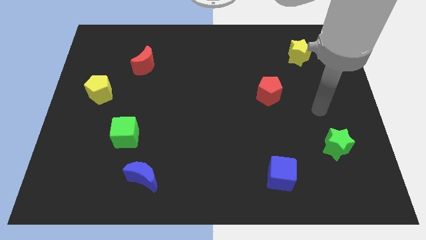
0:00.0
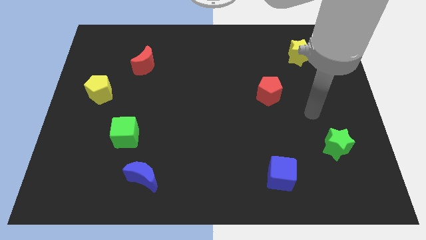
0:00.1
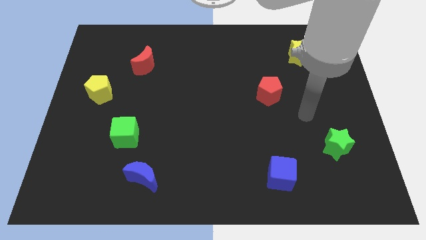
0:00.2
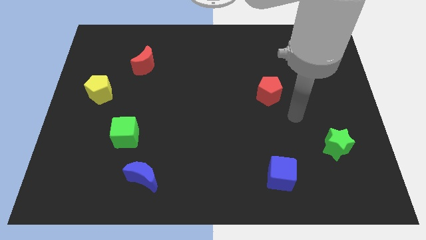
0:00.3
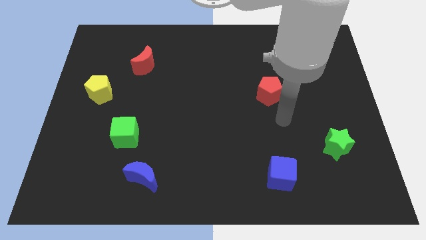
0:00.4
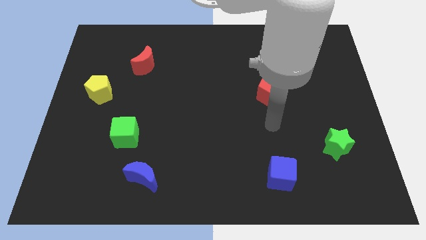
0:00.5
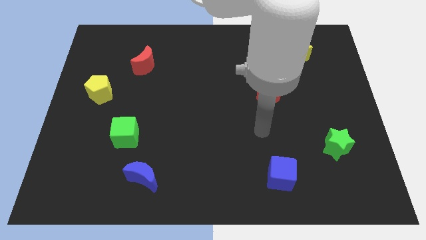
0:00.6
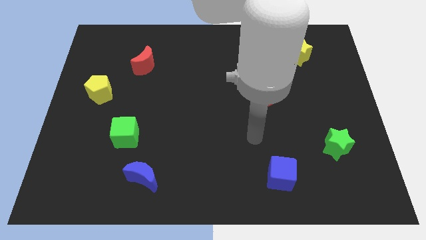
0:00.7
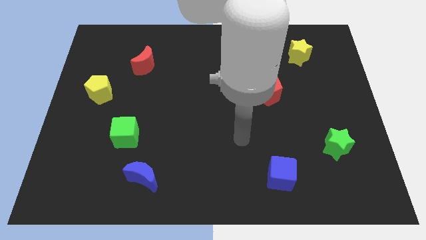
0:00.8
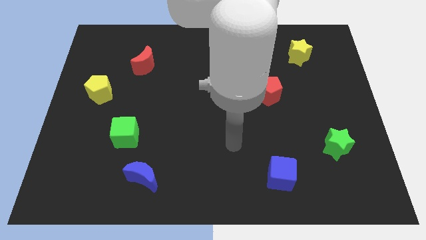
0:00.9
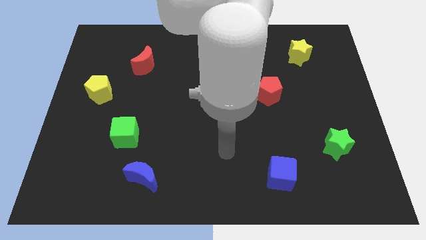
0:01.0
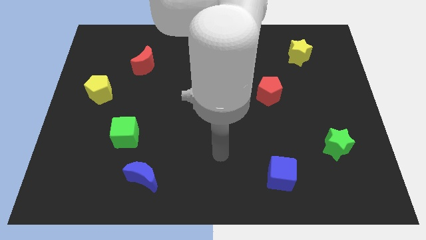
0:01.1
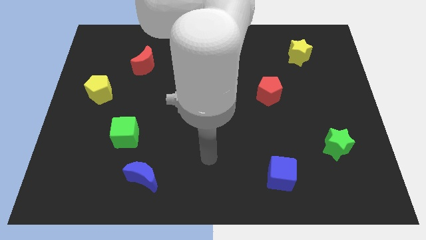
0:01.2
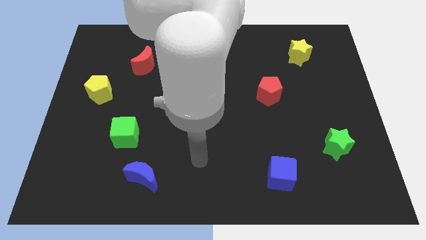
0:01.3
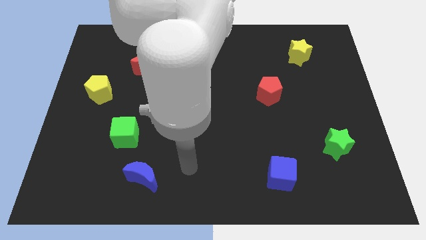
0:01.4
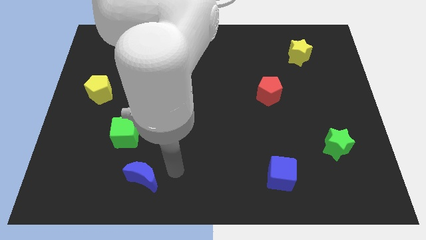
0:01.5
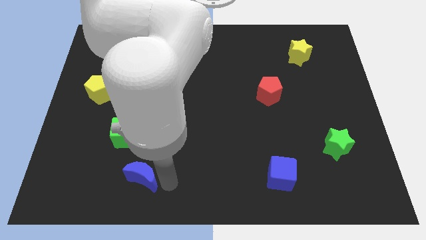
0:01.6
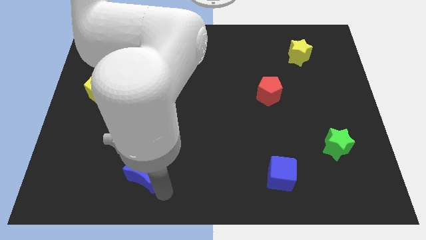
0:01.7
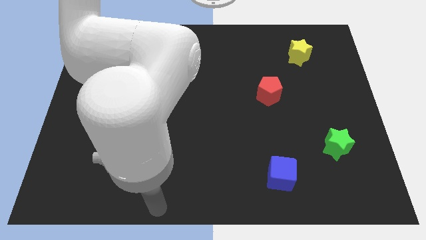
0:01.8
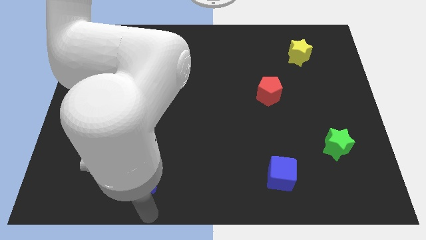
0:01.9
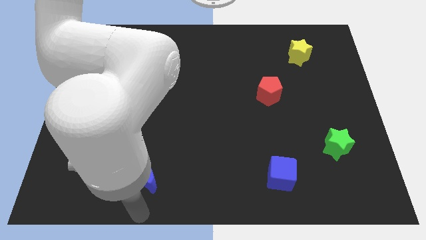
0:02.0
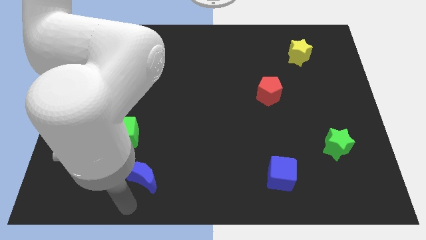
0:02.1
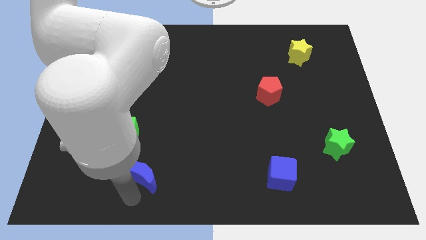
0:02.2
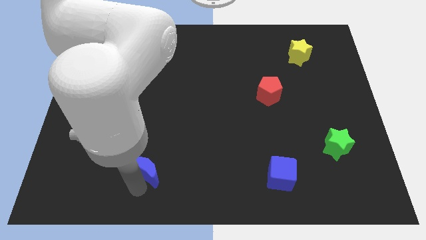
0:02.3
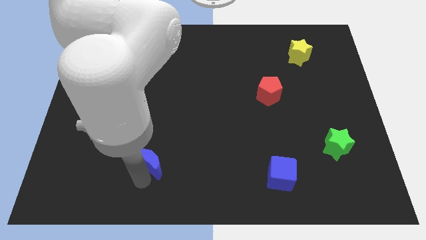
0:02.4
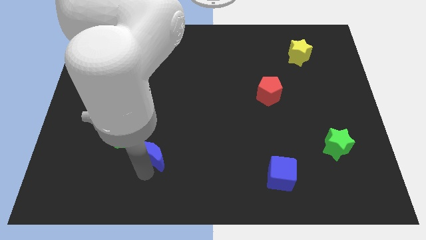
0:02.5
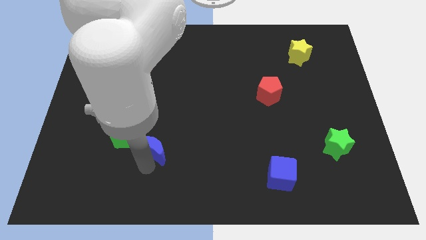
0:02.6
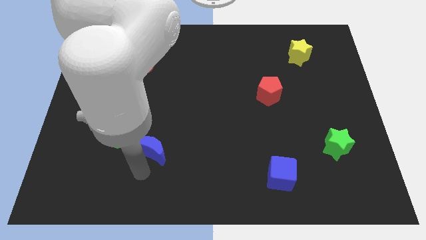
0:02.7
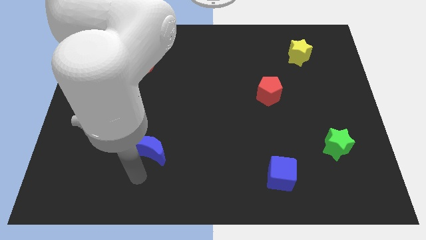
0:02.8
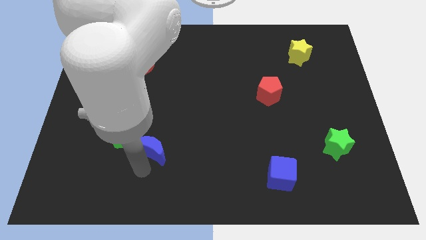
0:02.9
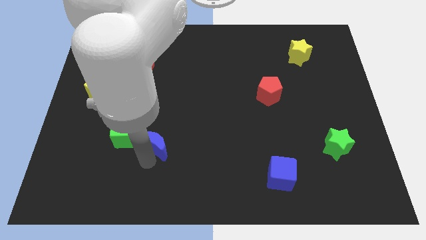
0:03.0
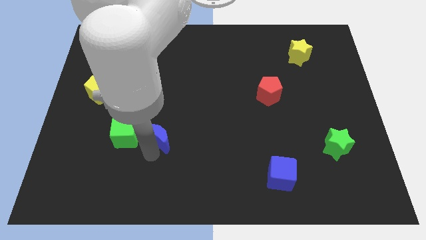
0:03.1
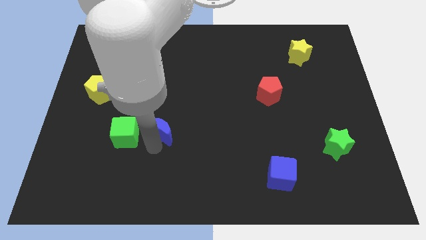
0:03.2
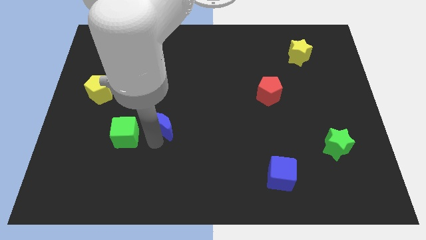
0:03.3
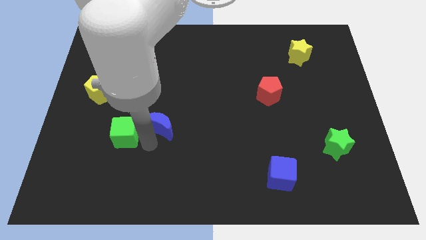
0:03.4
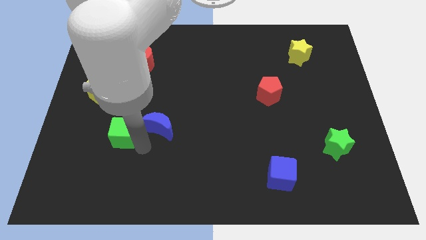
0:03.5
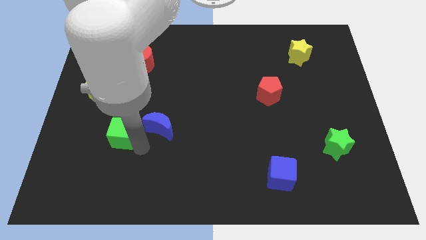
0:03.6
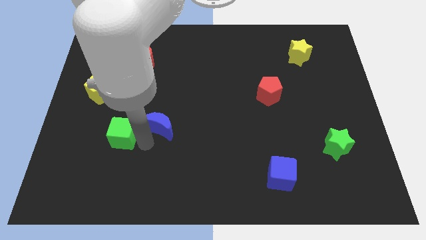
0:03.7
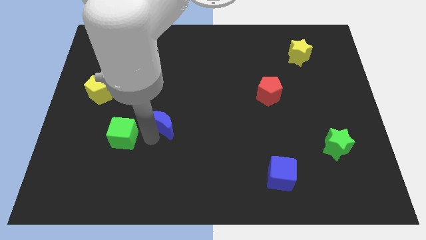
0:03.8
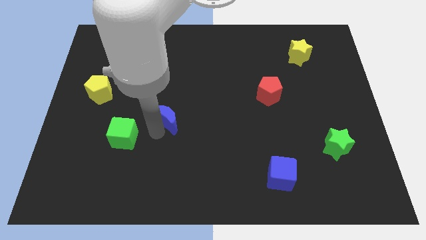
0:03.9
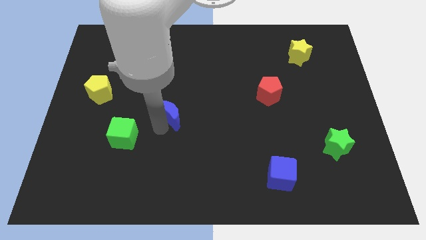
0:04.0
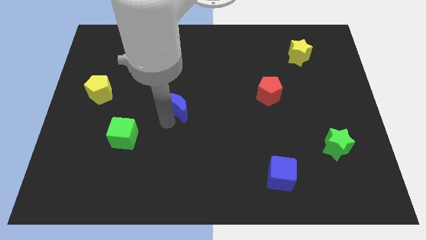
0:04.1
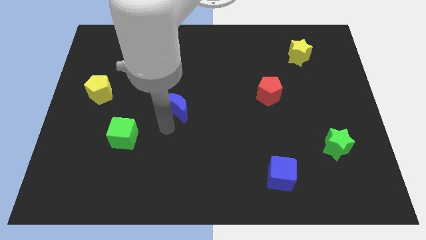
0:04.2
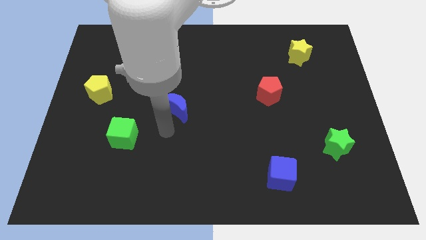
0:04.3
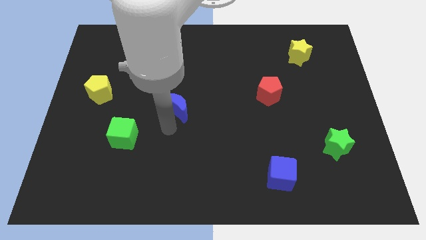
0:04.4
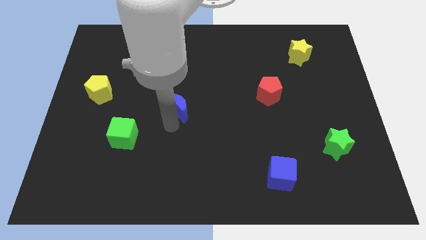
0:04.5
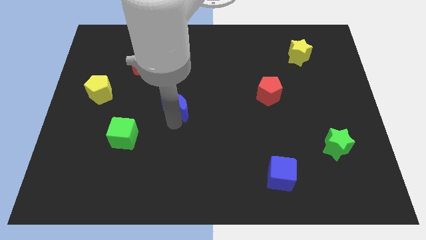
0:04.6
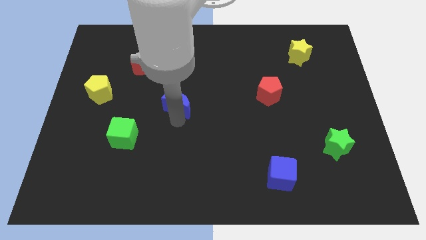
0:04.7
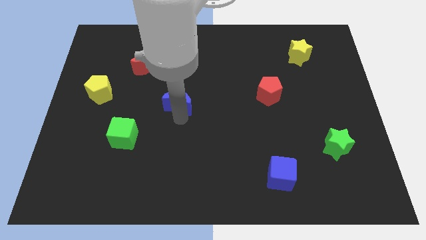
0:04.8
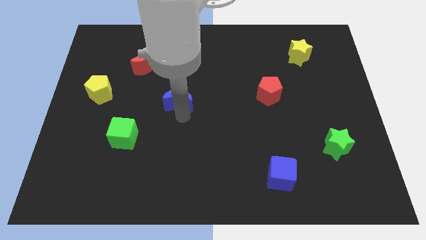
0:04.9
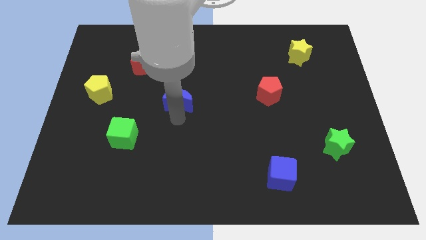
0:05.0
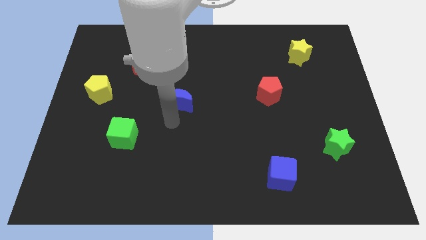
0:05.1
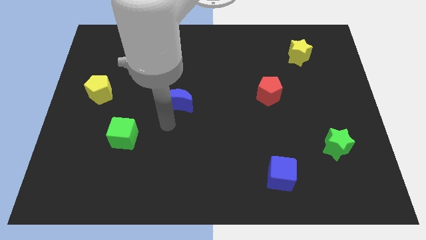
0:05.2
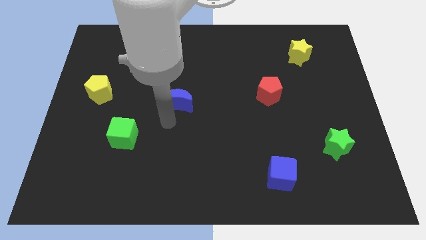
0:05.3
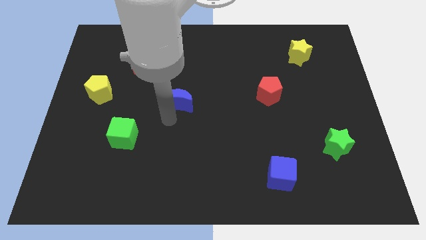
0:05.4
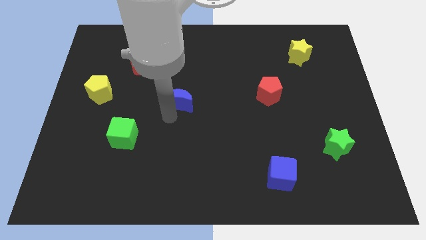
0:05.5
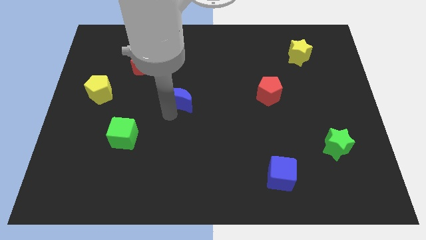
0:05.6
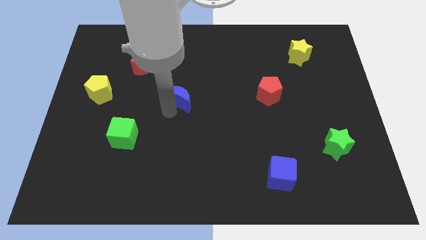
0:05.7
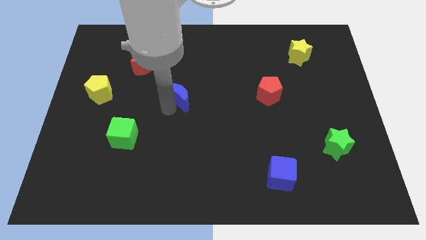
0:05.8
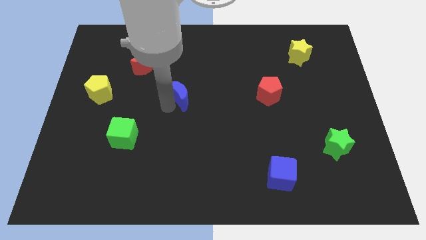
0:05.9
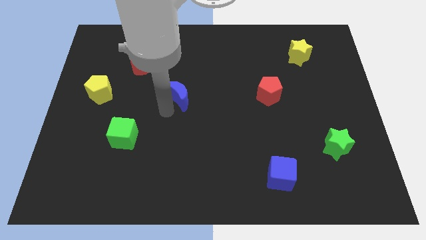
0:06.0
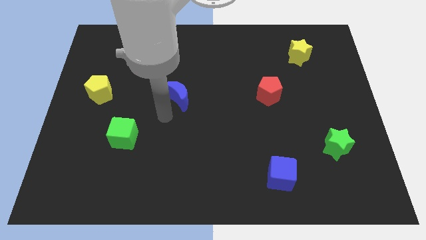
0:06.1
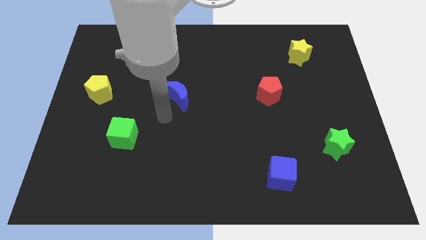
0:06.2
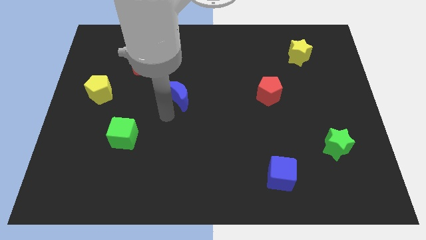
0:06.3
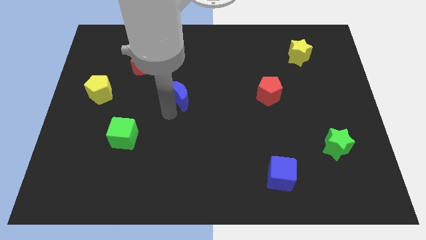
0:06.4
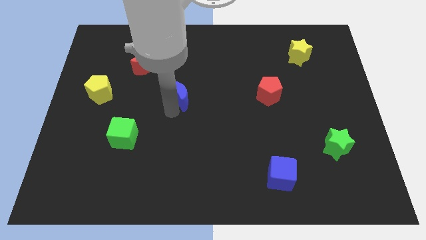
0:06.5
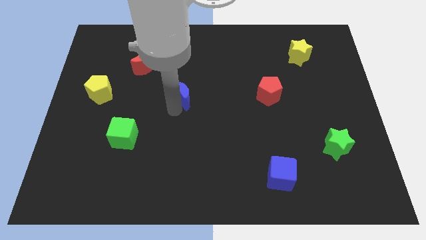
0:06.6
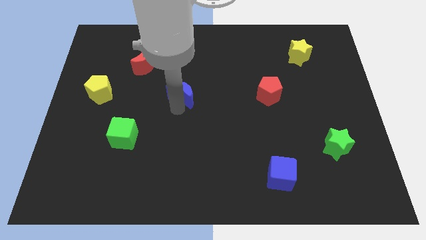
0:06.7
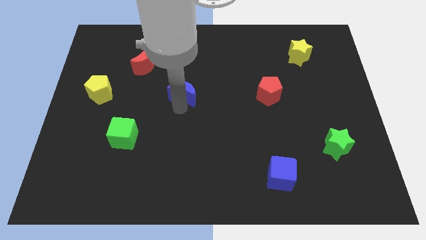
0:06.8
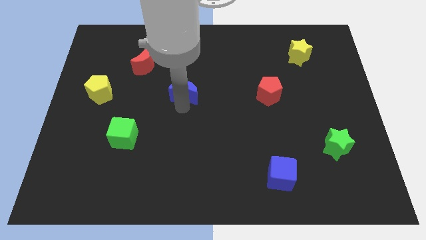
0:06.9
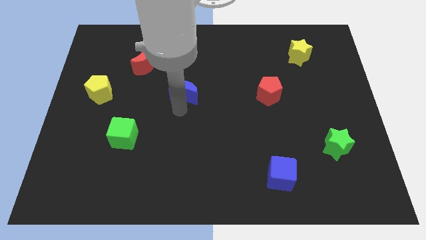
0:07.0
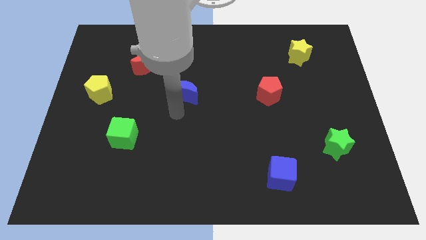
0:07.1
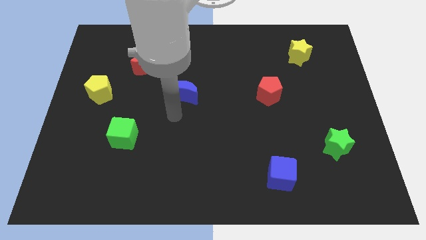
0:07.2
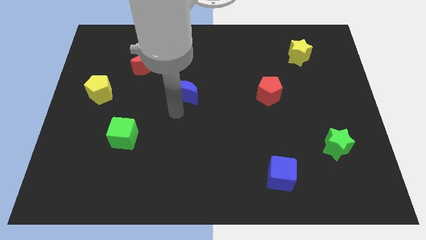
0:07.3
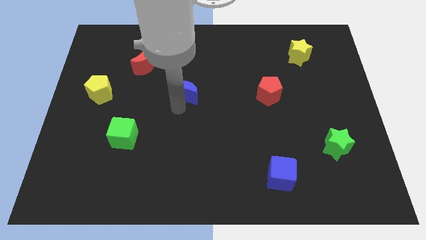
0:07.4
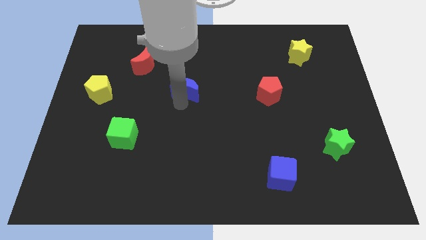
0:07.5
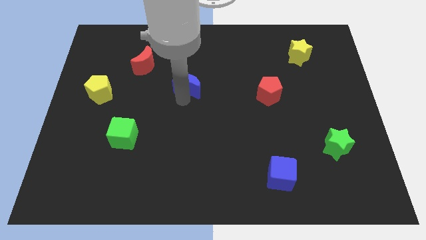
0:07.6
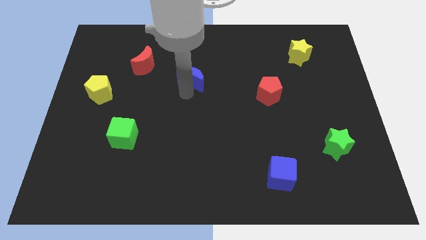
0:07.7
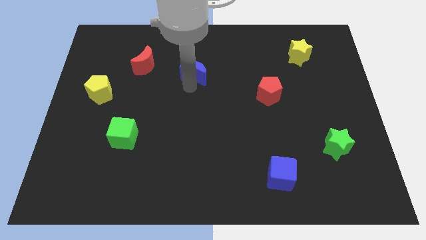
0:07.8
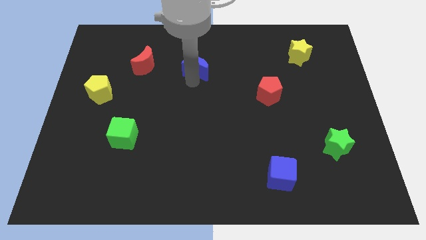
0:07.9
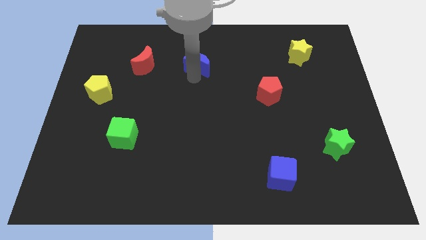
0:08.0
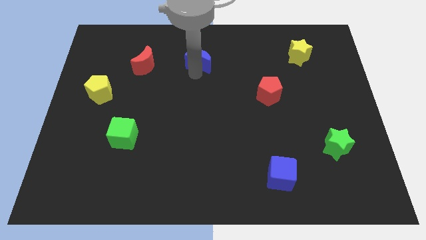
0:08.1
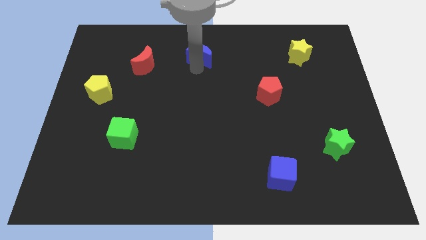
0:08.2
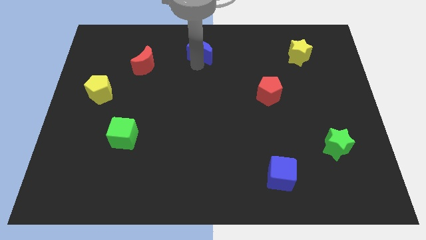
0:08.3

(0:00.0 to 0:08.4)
push the blue moon to the top side
